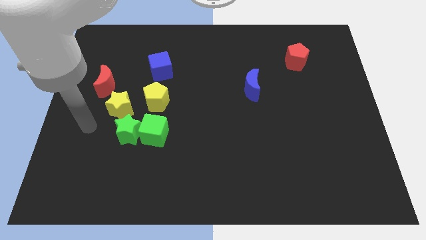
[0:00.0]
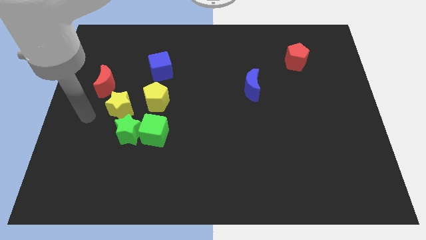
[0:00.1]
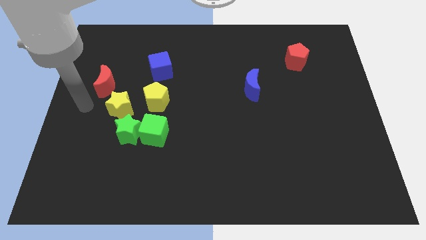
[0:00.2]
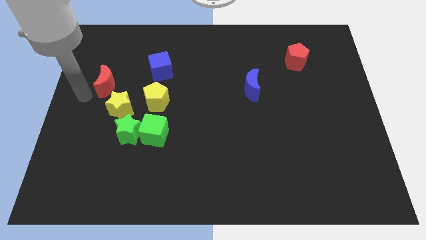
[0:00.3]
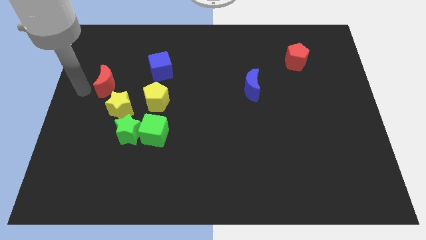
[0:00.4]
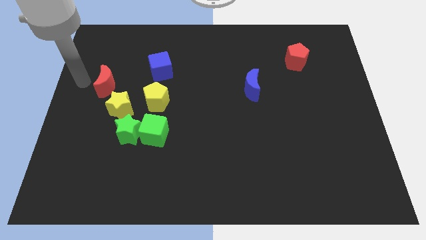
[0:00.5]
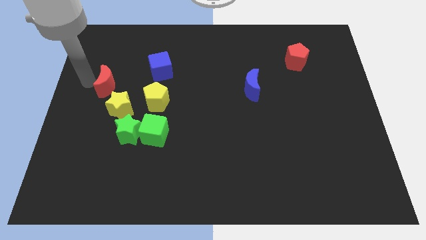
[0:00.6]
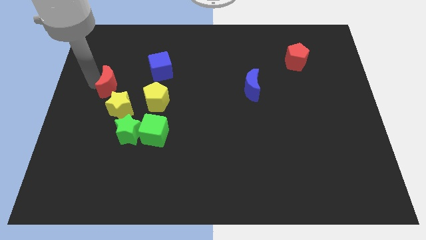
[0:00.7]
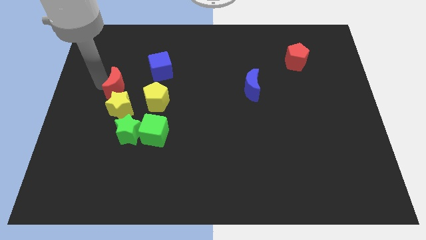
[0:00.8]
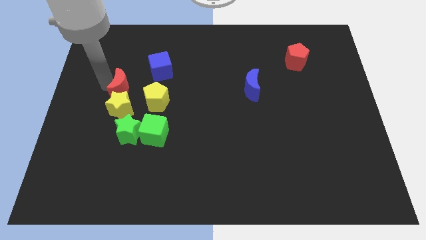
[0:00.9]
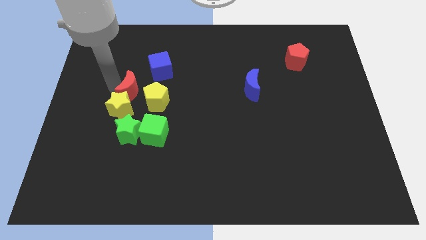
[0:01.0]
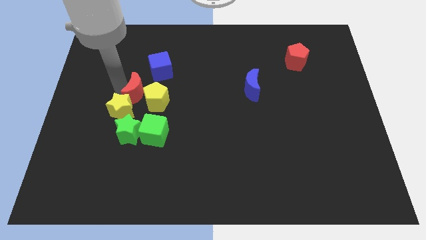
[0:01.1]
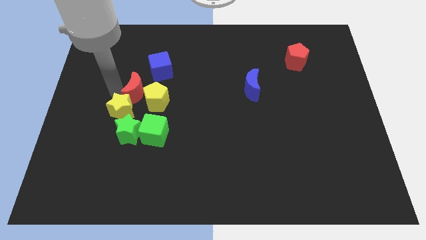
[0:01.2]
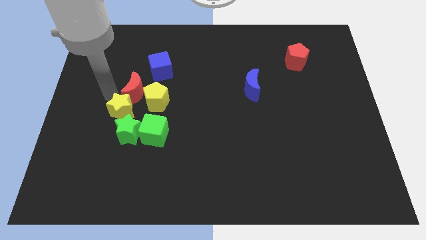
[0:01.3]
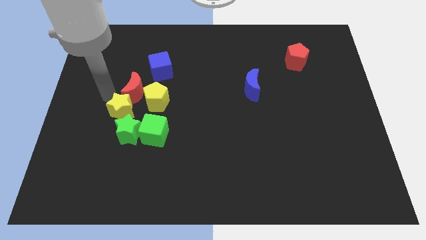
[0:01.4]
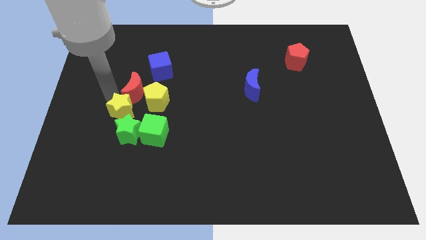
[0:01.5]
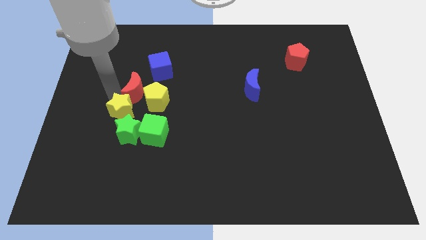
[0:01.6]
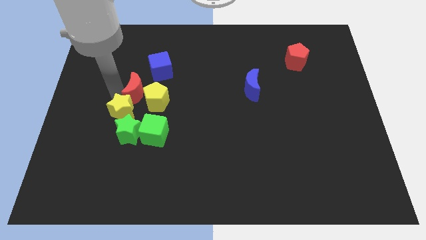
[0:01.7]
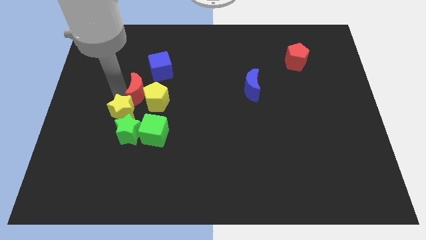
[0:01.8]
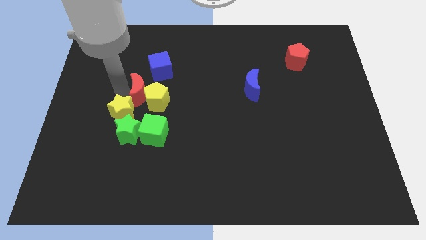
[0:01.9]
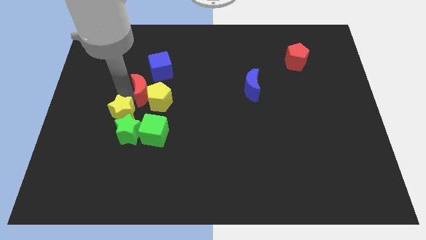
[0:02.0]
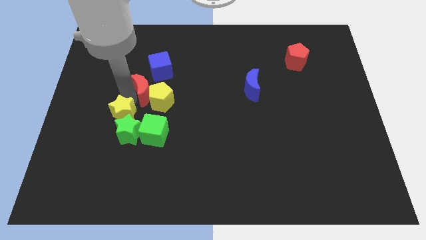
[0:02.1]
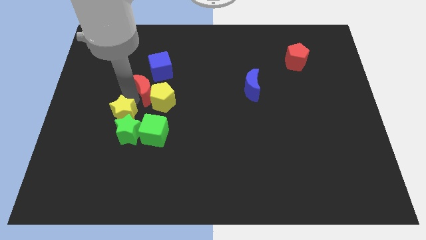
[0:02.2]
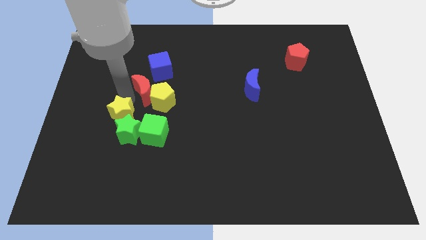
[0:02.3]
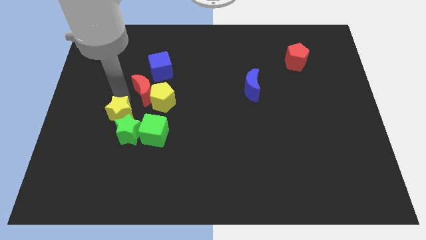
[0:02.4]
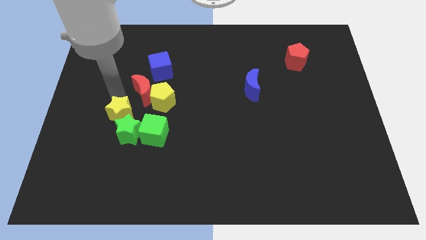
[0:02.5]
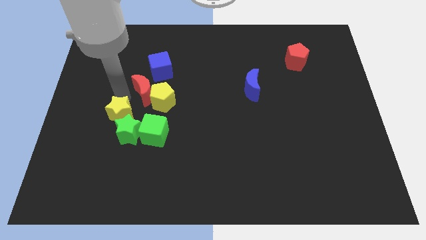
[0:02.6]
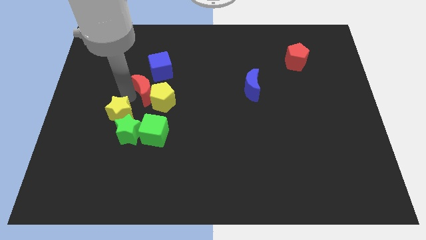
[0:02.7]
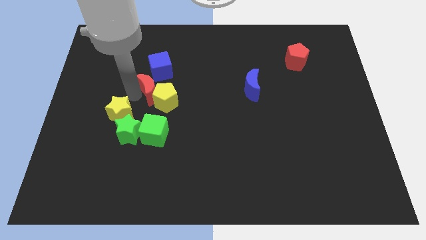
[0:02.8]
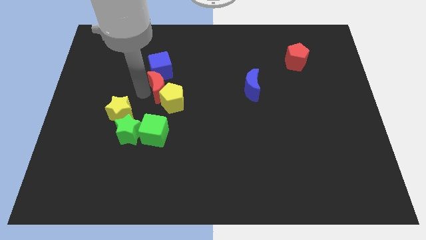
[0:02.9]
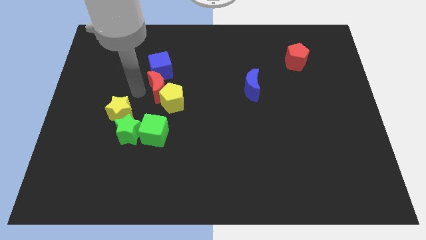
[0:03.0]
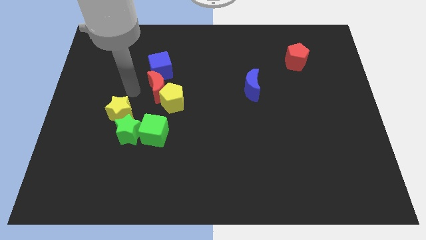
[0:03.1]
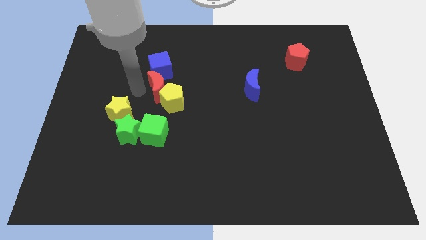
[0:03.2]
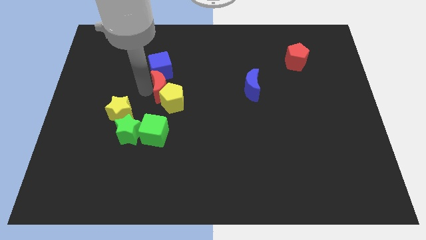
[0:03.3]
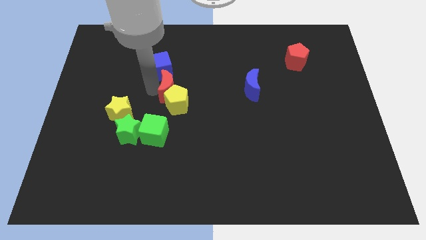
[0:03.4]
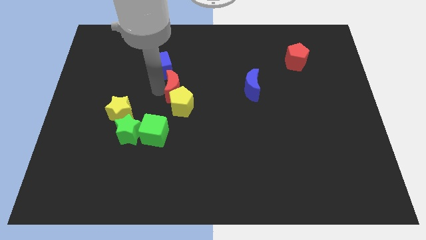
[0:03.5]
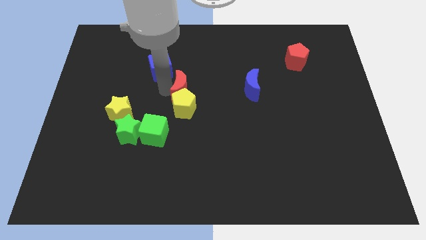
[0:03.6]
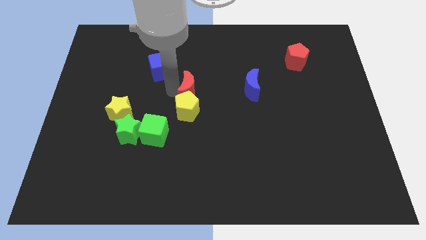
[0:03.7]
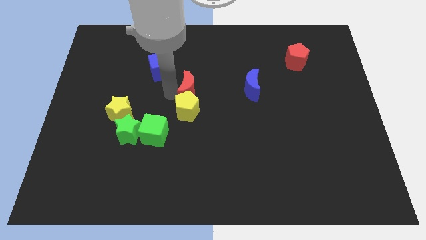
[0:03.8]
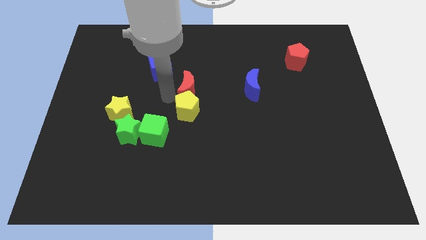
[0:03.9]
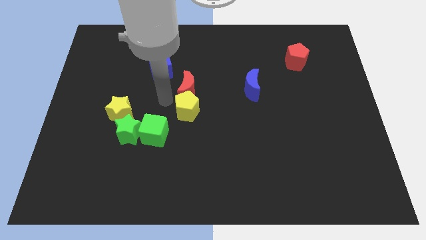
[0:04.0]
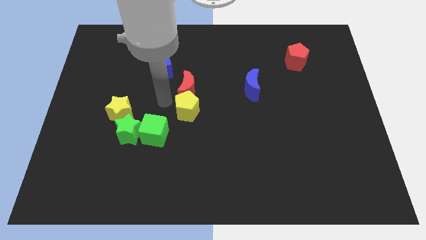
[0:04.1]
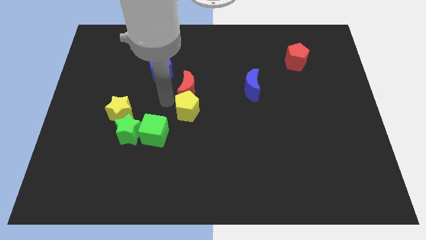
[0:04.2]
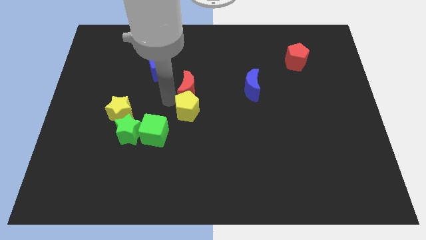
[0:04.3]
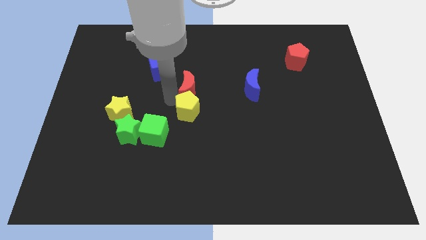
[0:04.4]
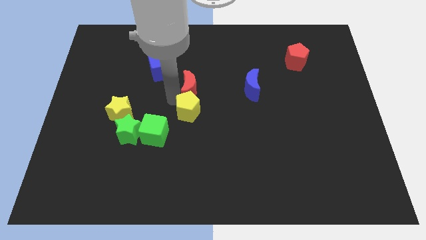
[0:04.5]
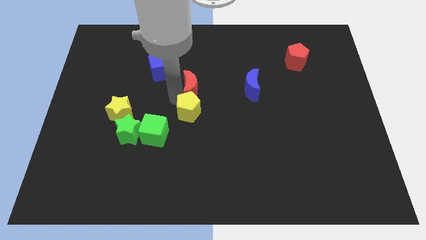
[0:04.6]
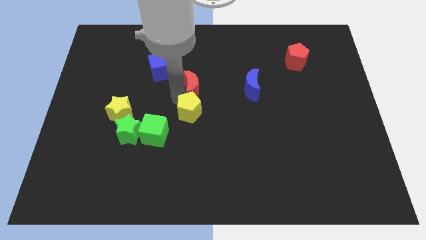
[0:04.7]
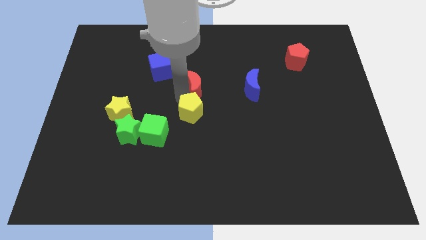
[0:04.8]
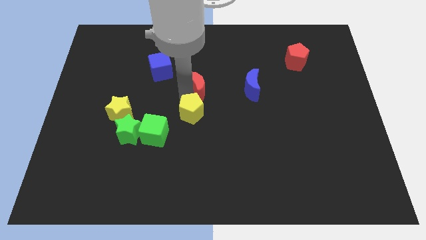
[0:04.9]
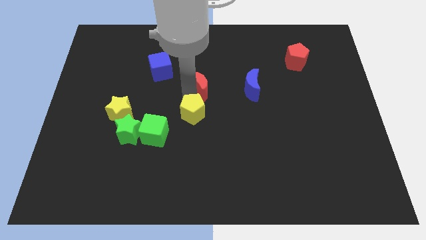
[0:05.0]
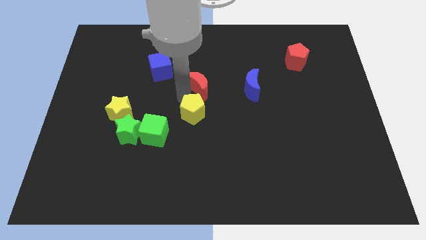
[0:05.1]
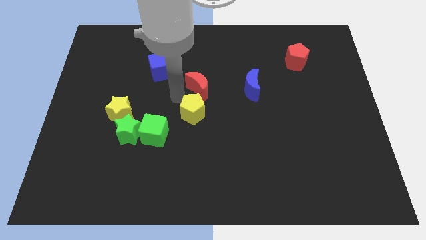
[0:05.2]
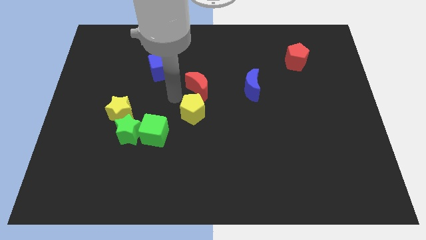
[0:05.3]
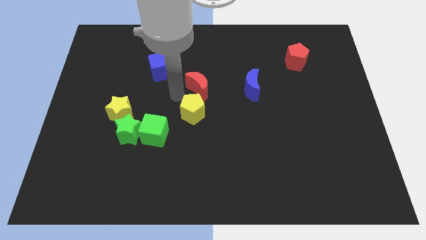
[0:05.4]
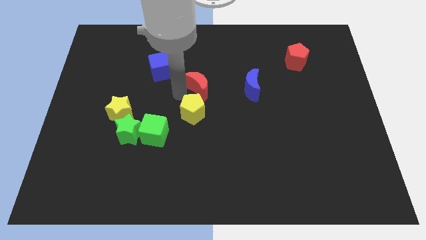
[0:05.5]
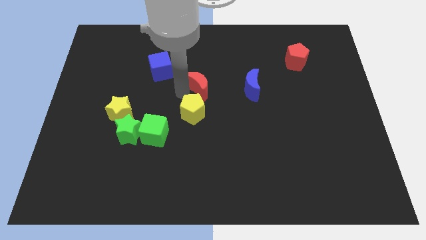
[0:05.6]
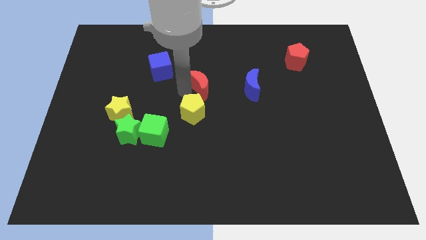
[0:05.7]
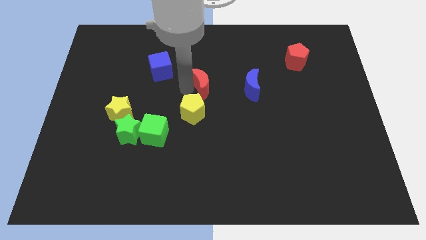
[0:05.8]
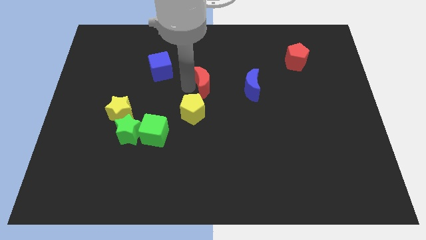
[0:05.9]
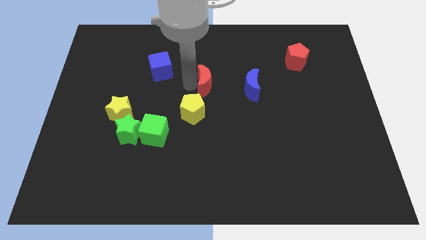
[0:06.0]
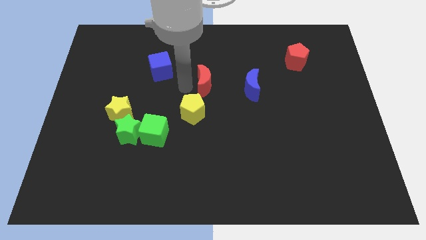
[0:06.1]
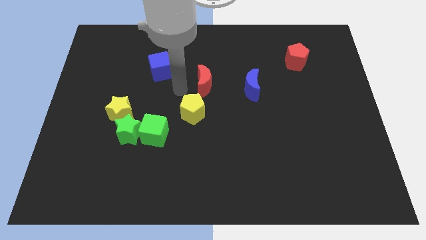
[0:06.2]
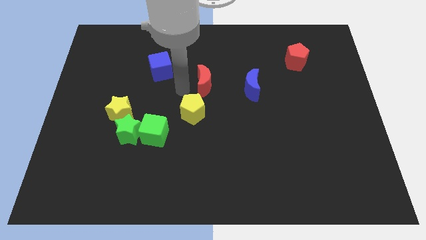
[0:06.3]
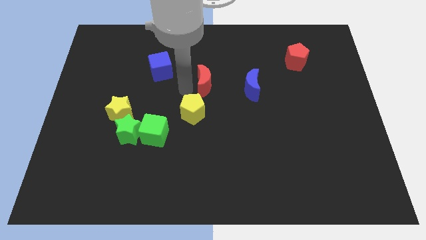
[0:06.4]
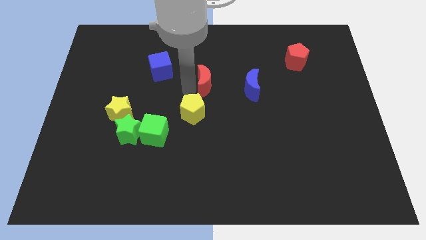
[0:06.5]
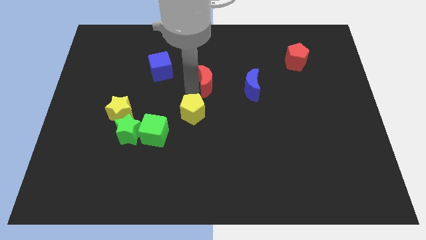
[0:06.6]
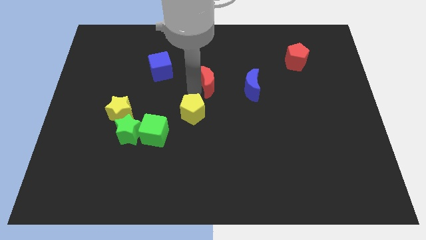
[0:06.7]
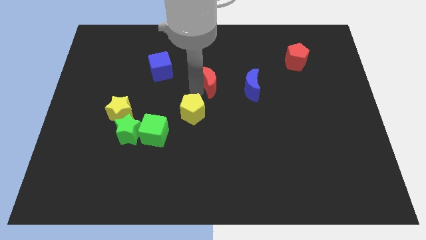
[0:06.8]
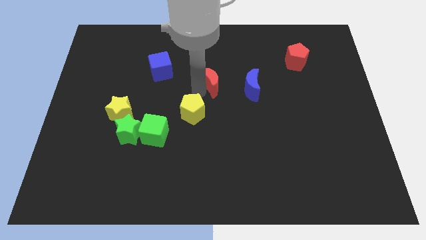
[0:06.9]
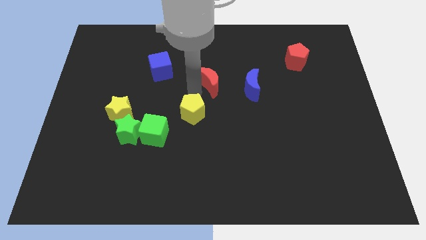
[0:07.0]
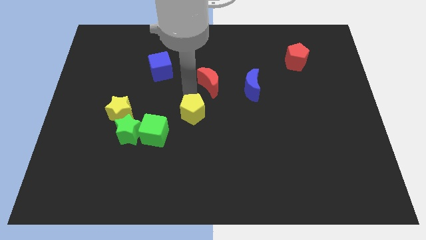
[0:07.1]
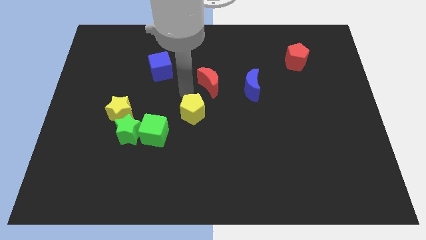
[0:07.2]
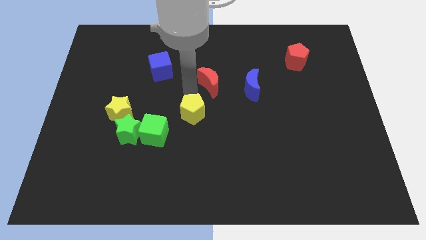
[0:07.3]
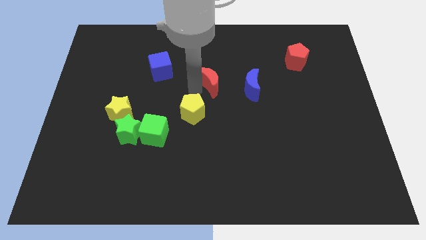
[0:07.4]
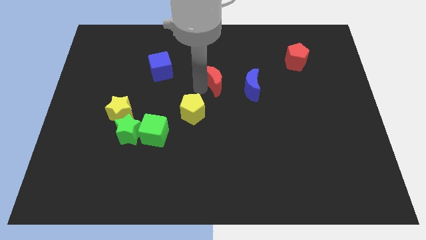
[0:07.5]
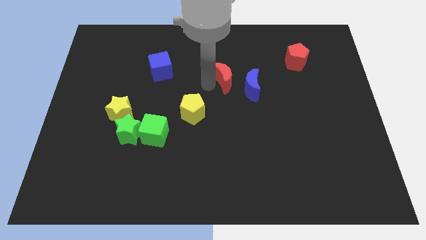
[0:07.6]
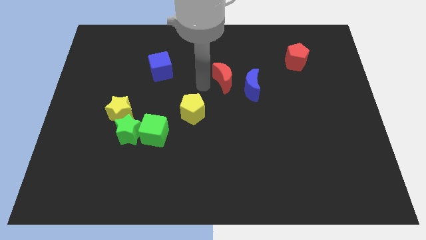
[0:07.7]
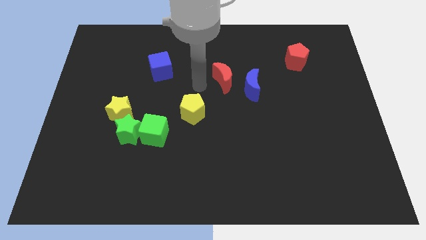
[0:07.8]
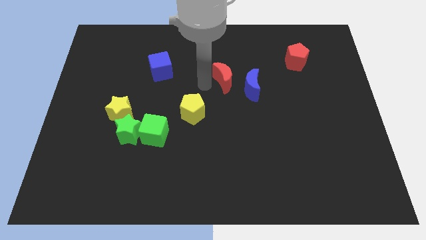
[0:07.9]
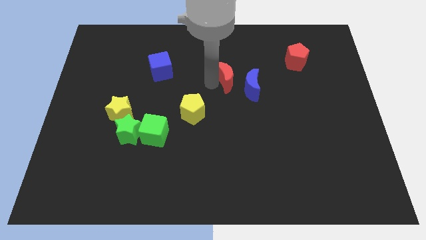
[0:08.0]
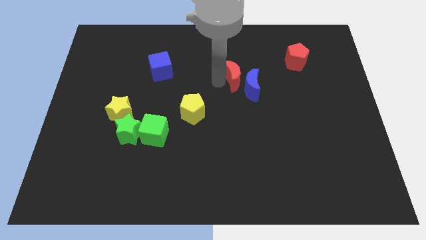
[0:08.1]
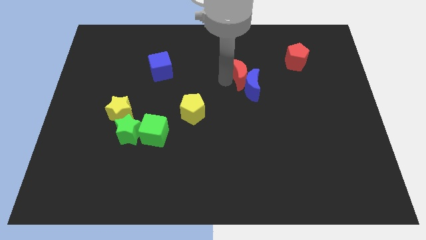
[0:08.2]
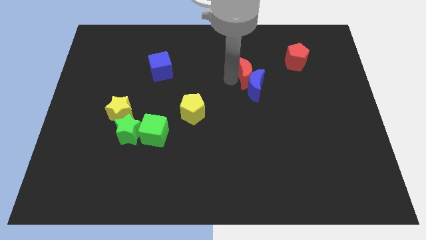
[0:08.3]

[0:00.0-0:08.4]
slide the red moon to the top right of the blue moon
